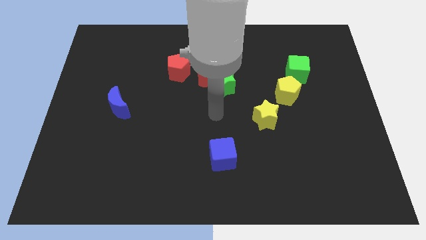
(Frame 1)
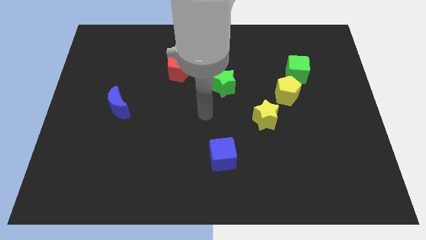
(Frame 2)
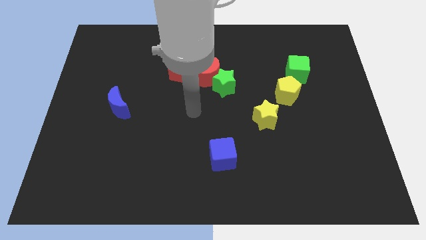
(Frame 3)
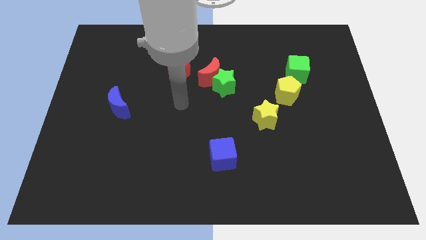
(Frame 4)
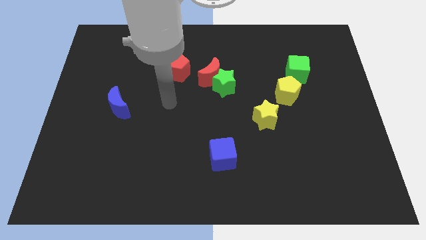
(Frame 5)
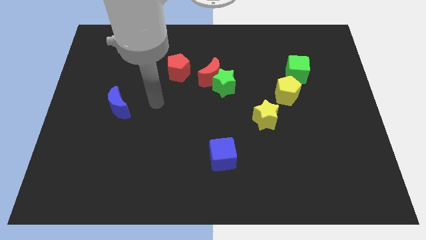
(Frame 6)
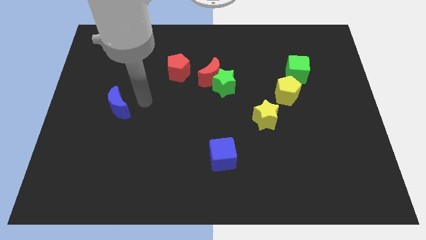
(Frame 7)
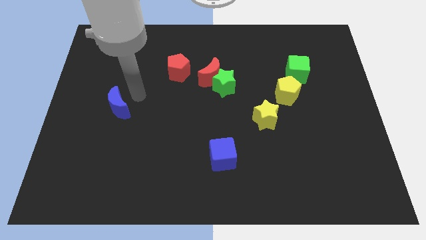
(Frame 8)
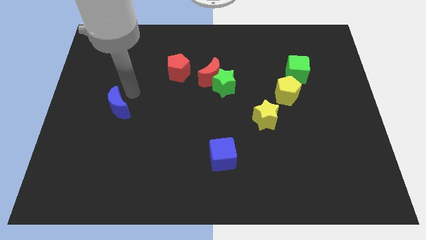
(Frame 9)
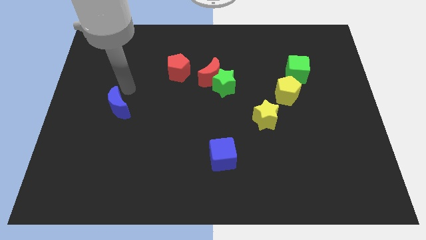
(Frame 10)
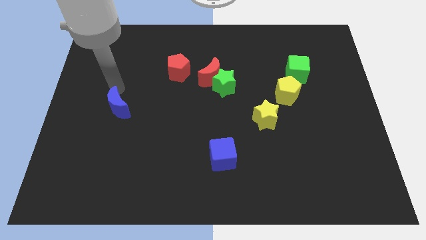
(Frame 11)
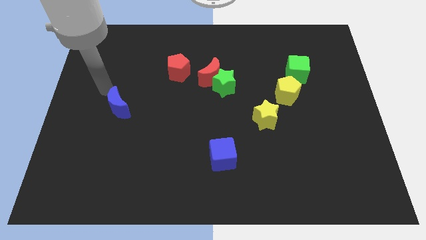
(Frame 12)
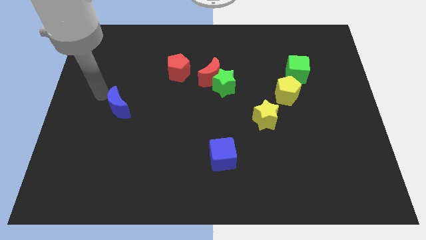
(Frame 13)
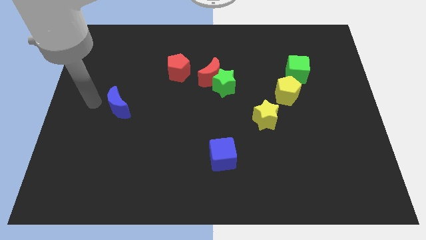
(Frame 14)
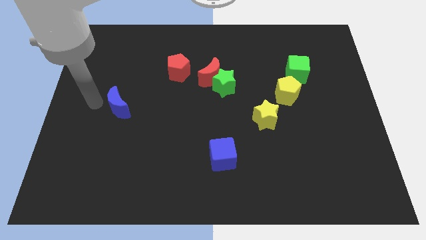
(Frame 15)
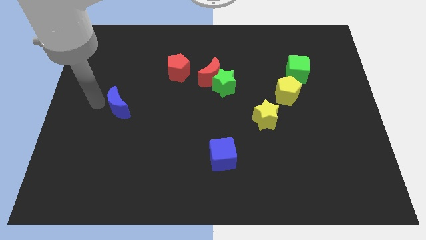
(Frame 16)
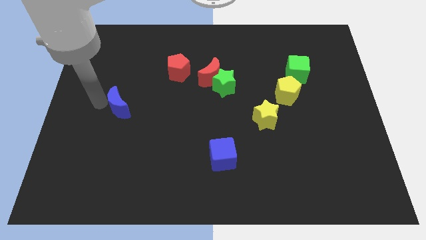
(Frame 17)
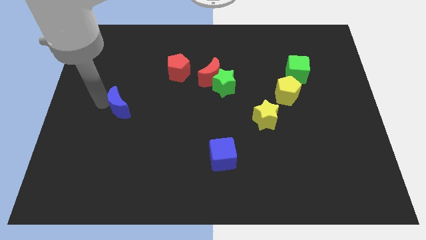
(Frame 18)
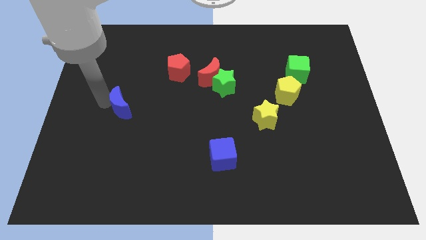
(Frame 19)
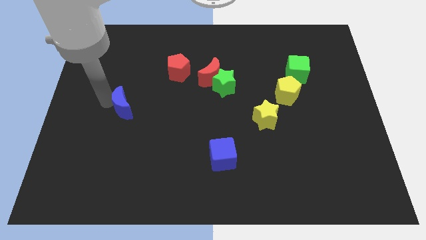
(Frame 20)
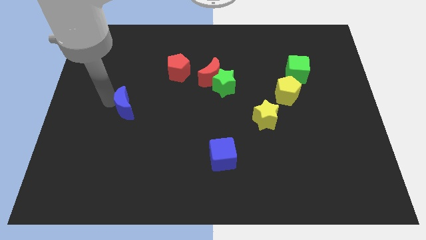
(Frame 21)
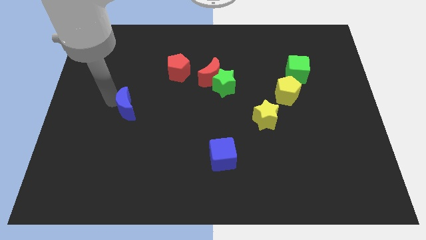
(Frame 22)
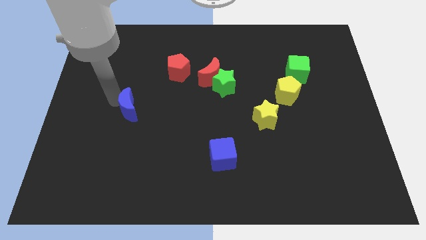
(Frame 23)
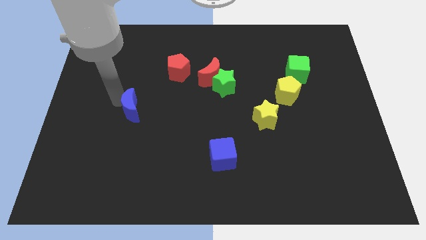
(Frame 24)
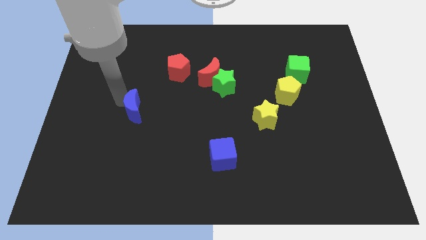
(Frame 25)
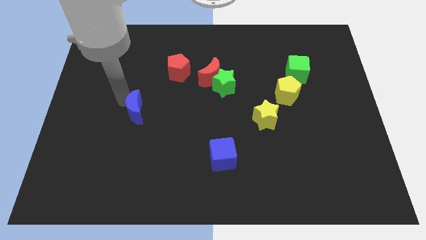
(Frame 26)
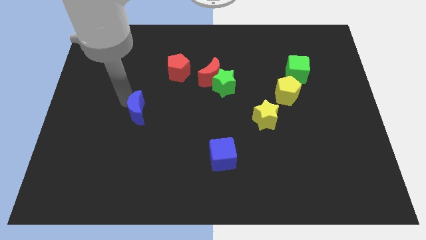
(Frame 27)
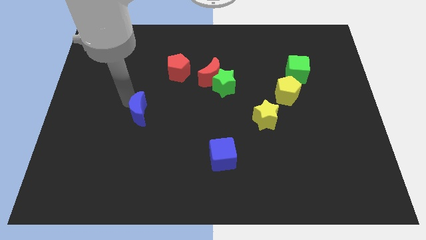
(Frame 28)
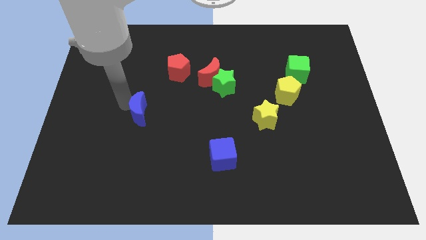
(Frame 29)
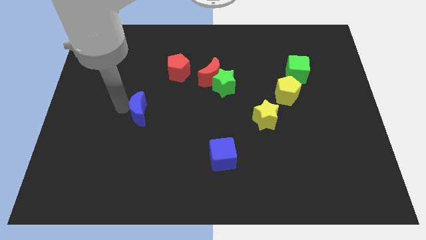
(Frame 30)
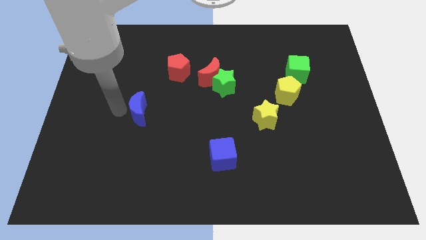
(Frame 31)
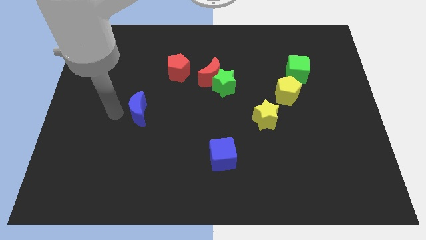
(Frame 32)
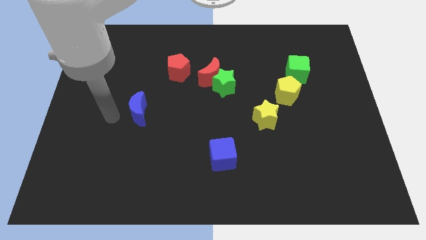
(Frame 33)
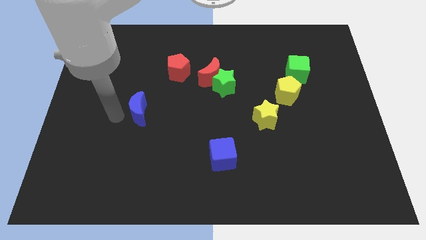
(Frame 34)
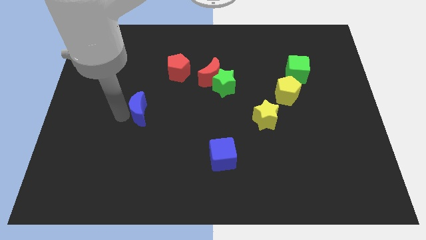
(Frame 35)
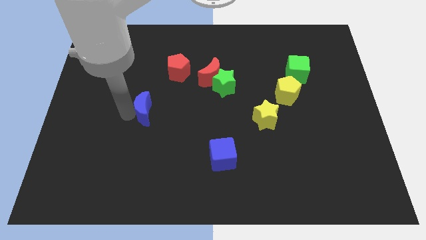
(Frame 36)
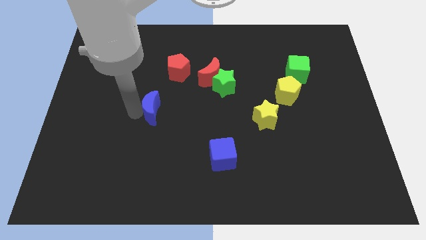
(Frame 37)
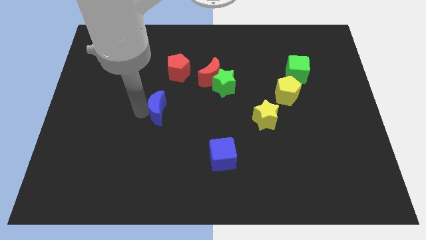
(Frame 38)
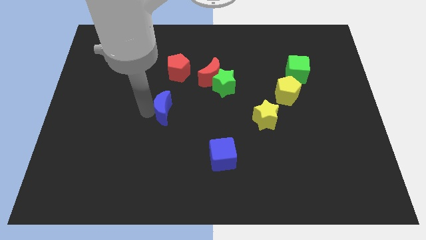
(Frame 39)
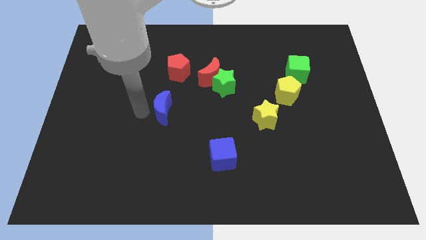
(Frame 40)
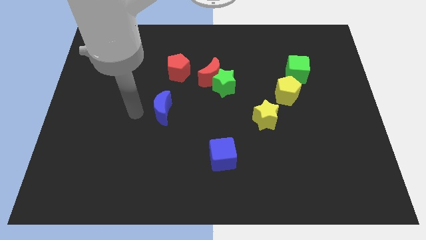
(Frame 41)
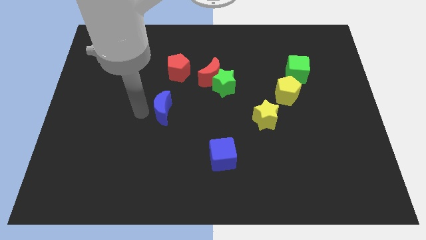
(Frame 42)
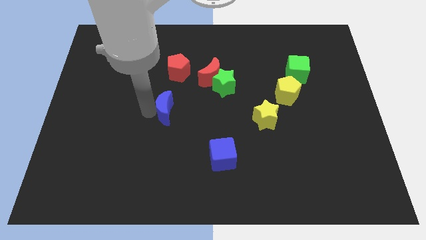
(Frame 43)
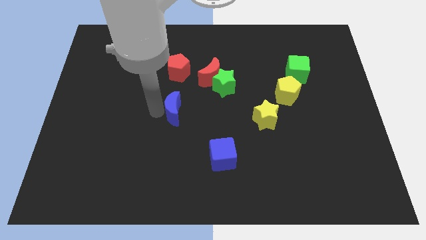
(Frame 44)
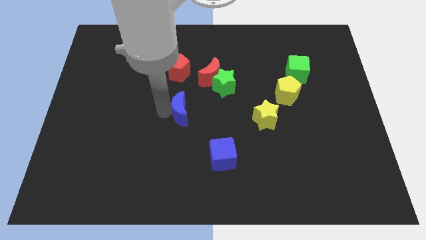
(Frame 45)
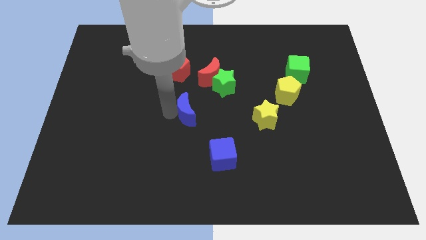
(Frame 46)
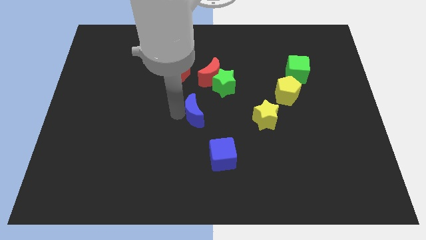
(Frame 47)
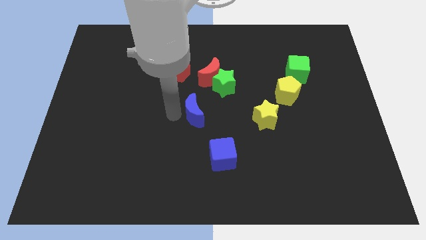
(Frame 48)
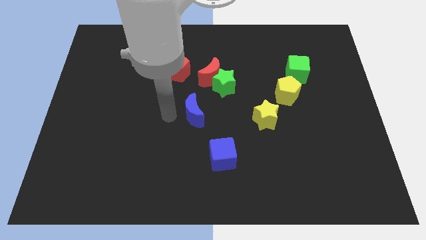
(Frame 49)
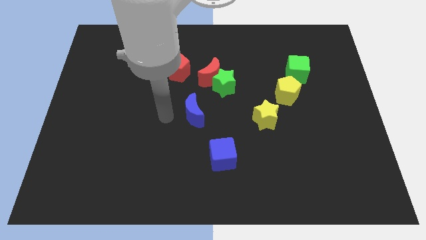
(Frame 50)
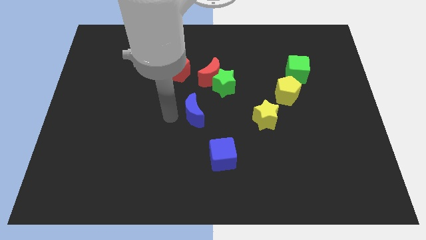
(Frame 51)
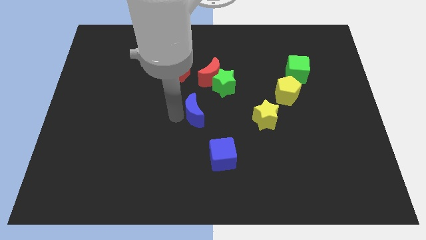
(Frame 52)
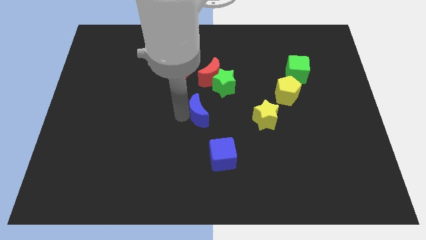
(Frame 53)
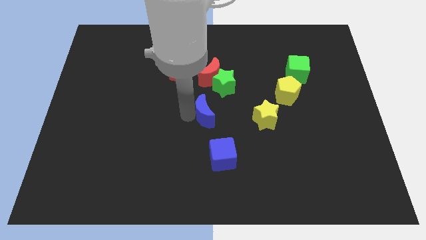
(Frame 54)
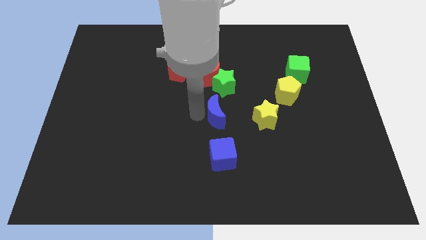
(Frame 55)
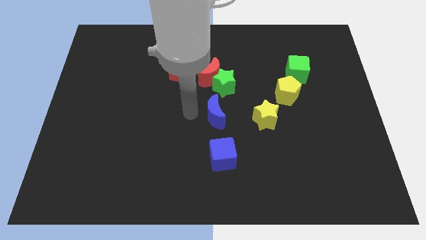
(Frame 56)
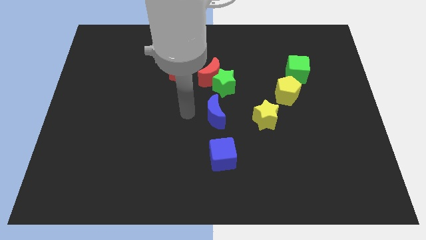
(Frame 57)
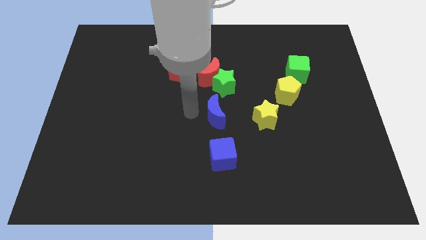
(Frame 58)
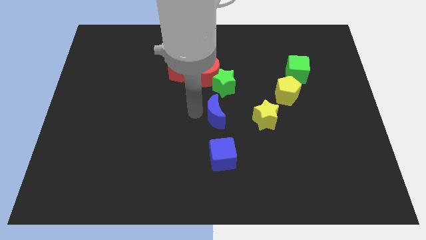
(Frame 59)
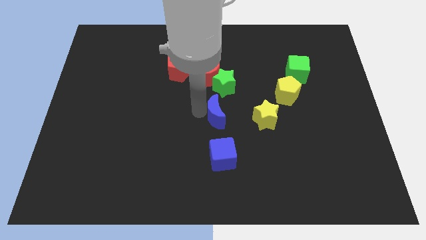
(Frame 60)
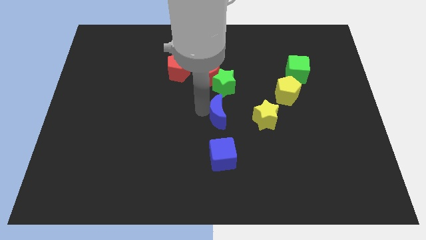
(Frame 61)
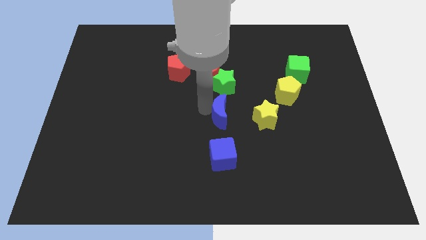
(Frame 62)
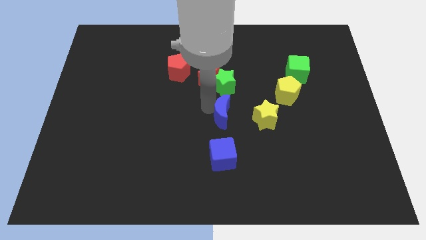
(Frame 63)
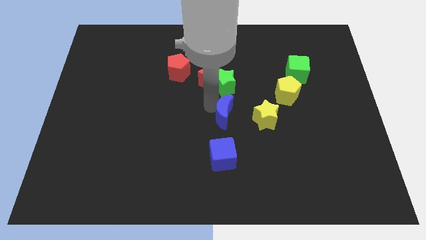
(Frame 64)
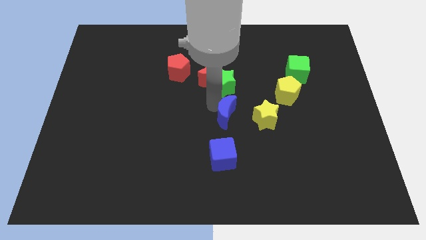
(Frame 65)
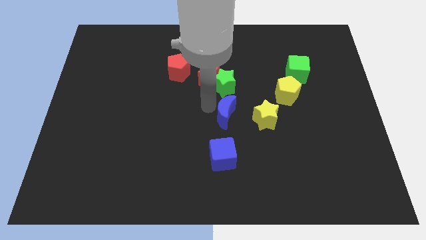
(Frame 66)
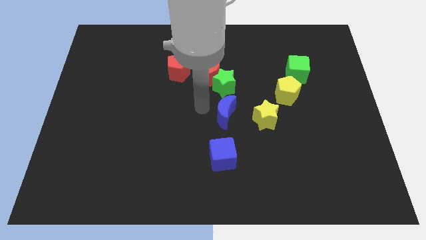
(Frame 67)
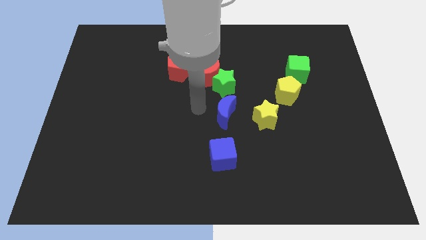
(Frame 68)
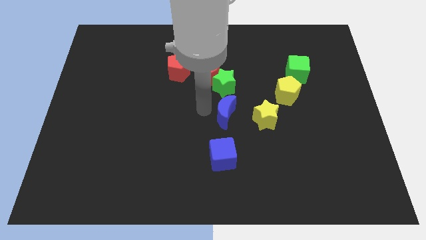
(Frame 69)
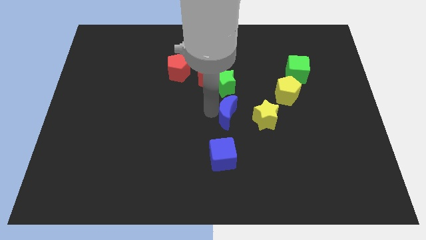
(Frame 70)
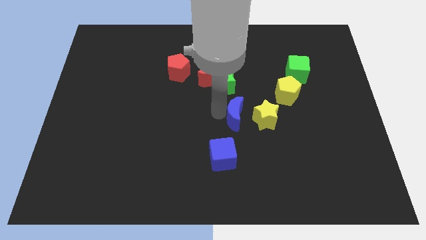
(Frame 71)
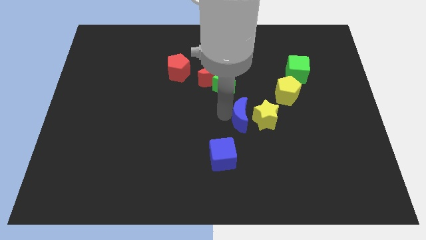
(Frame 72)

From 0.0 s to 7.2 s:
slide the blue moon close to the yellow star

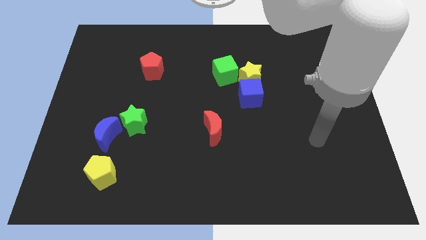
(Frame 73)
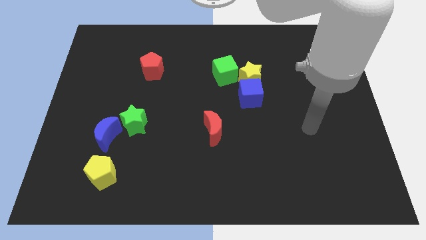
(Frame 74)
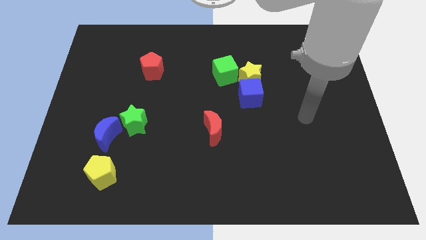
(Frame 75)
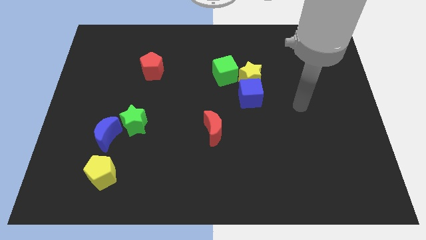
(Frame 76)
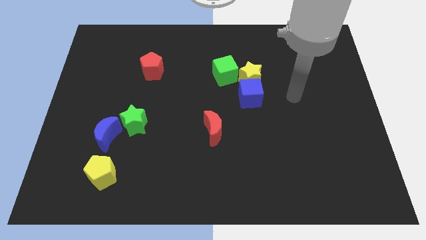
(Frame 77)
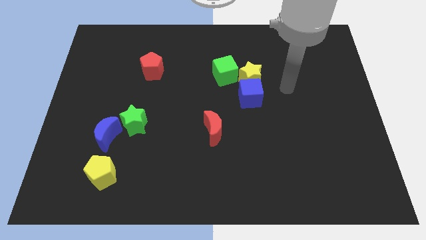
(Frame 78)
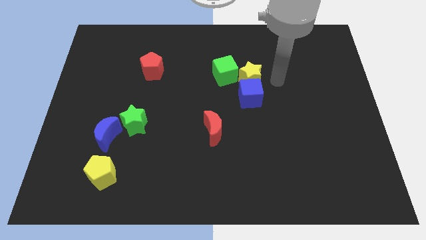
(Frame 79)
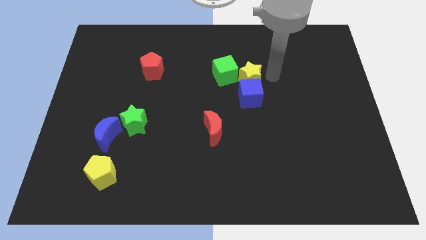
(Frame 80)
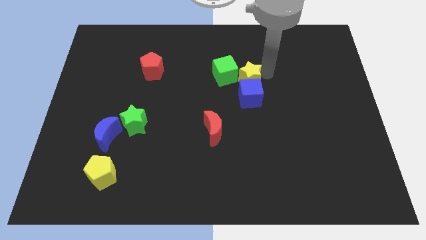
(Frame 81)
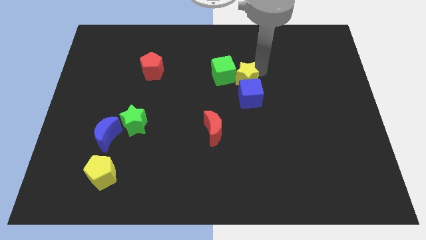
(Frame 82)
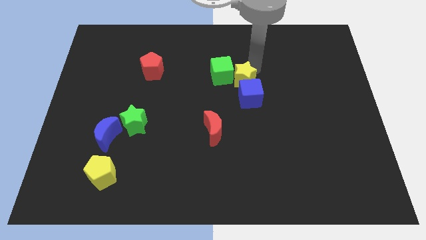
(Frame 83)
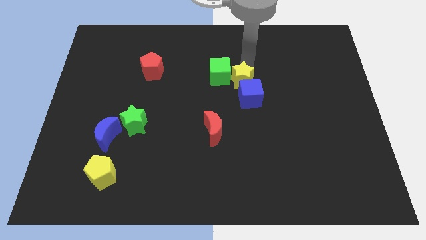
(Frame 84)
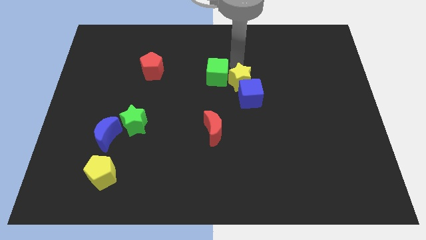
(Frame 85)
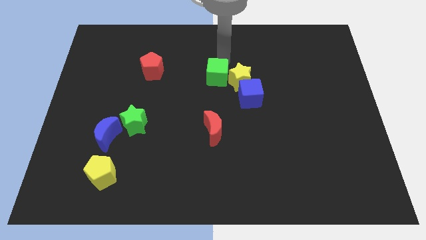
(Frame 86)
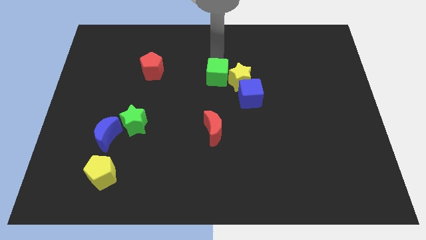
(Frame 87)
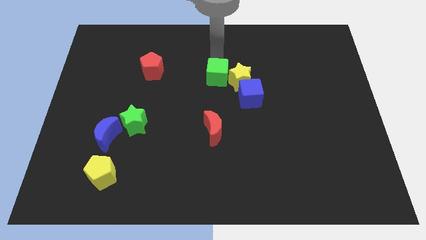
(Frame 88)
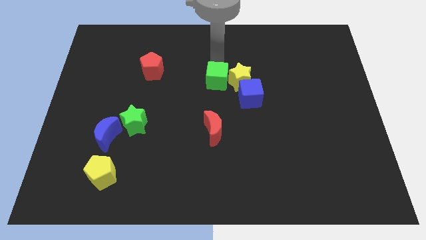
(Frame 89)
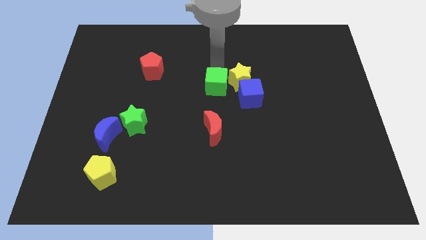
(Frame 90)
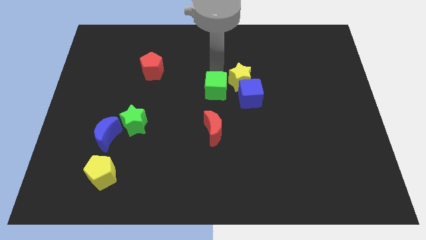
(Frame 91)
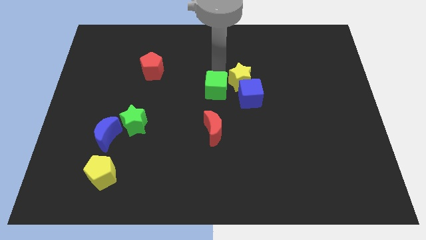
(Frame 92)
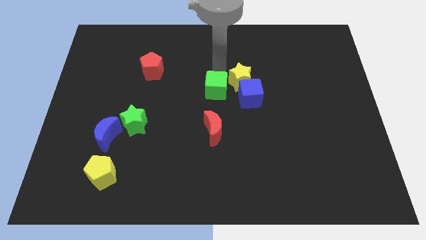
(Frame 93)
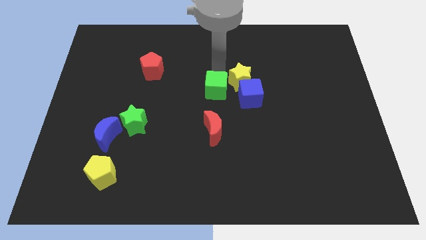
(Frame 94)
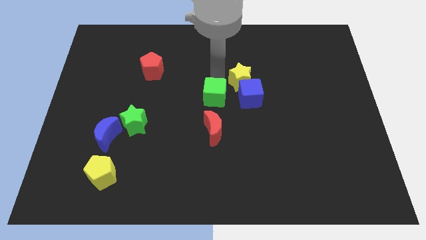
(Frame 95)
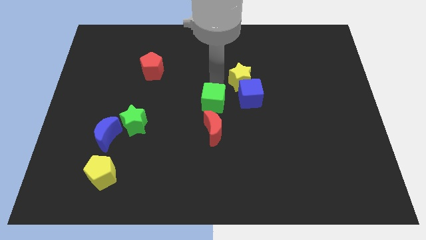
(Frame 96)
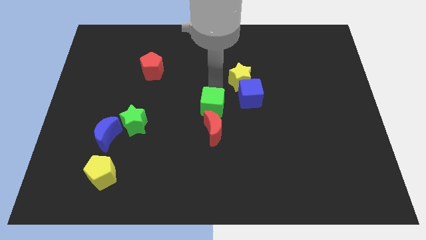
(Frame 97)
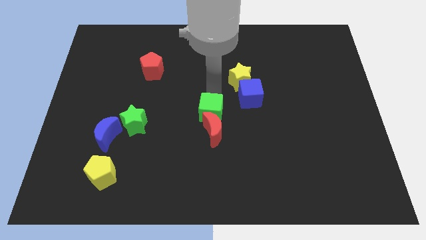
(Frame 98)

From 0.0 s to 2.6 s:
move the green cube towards the red moon
